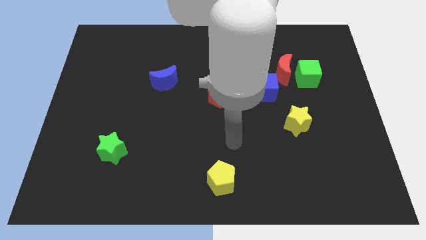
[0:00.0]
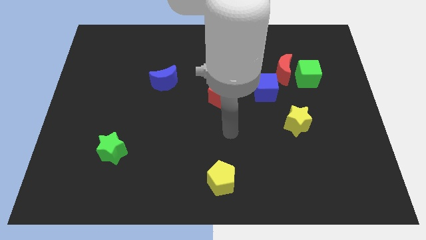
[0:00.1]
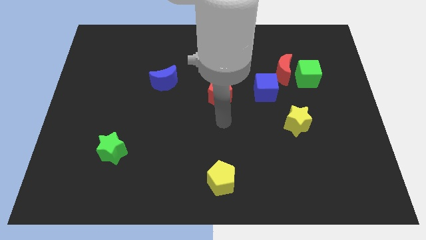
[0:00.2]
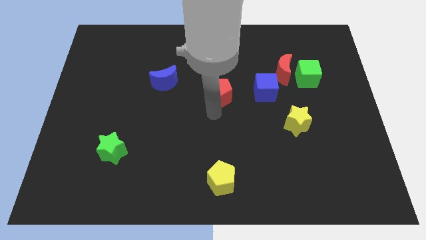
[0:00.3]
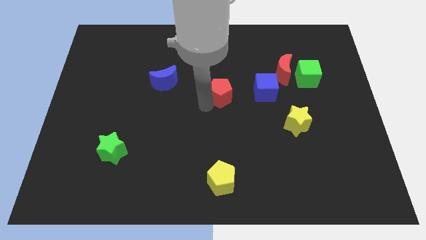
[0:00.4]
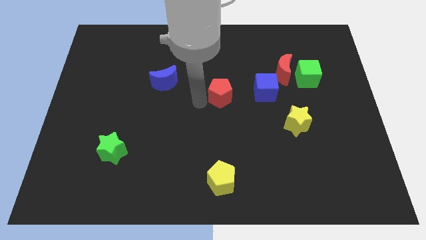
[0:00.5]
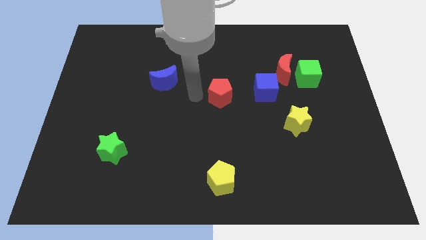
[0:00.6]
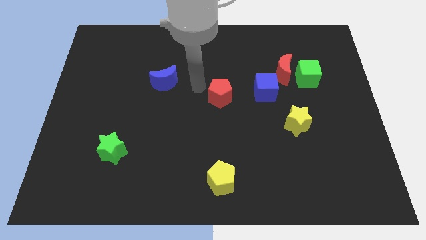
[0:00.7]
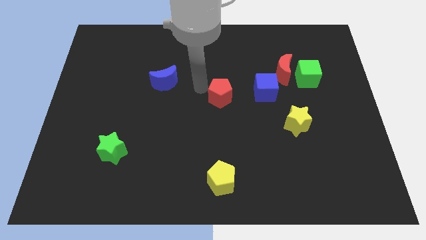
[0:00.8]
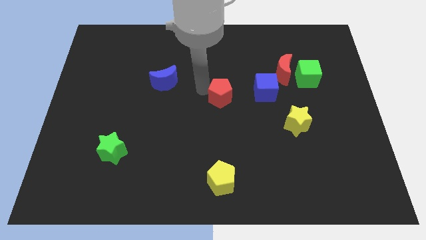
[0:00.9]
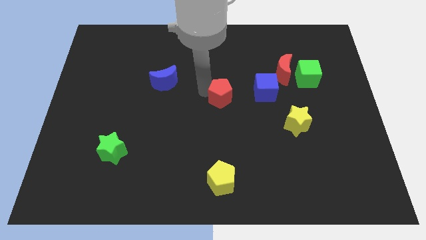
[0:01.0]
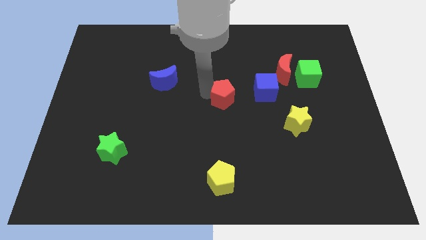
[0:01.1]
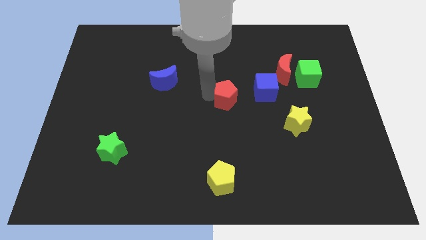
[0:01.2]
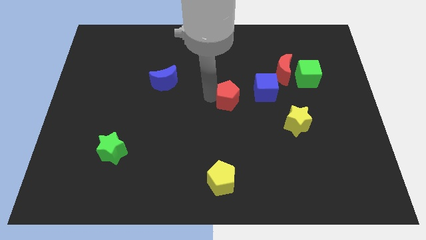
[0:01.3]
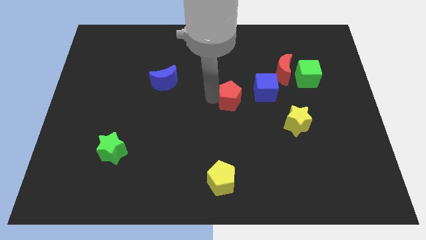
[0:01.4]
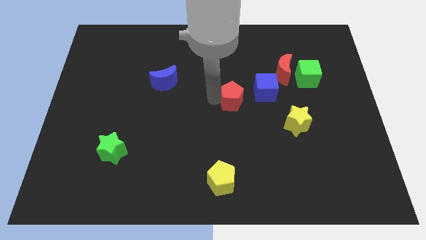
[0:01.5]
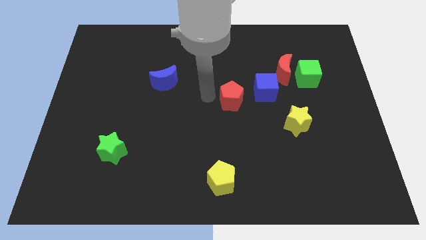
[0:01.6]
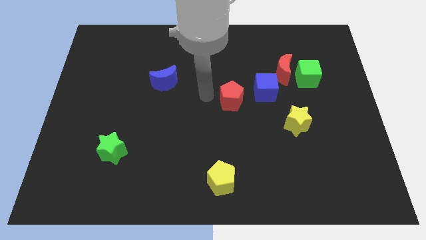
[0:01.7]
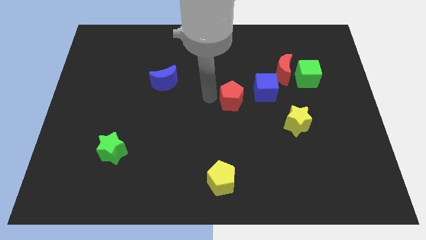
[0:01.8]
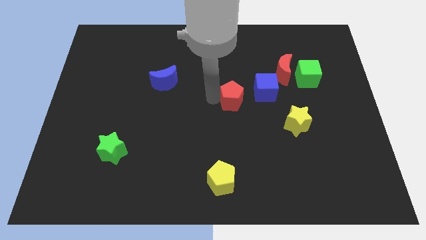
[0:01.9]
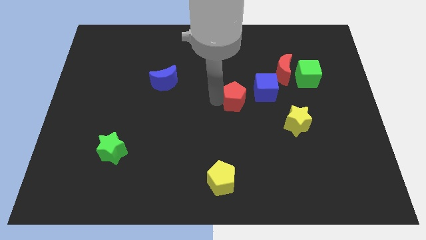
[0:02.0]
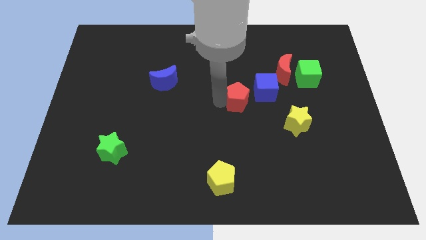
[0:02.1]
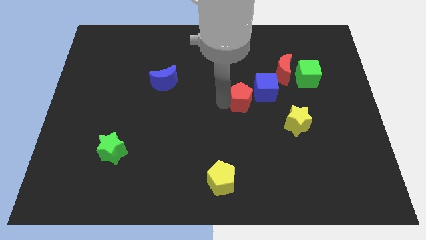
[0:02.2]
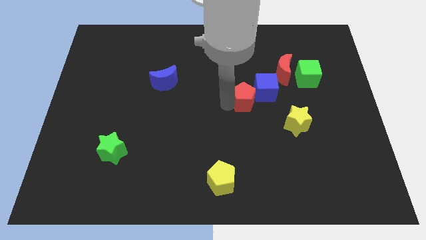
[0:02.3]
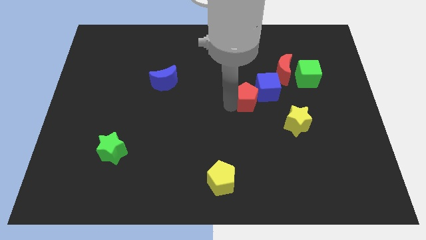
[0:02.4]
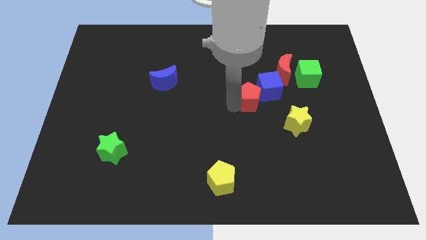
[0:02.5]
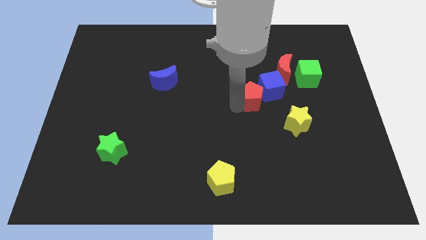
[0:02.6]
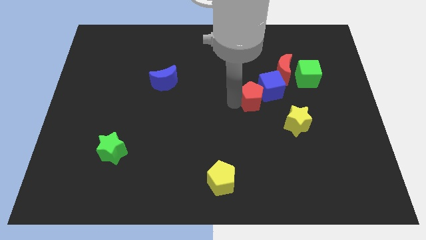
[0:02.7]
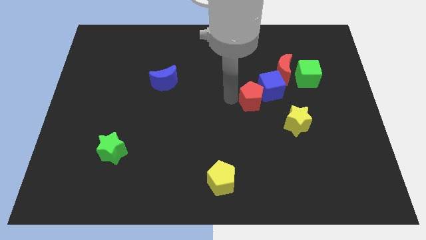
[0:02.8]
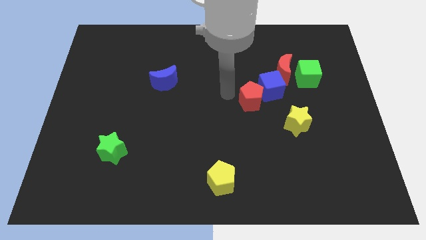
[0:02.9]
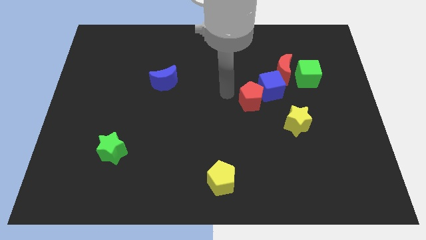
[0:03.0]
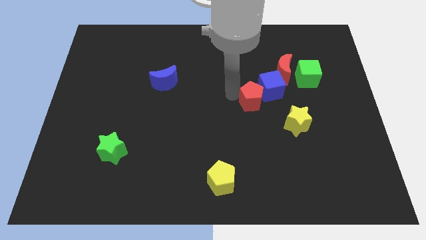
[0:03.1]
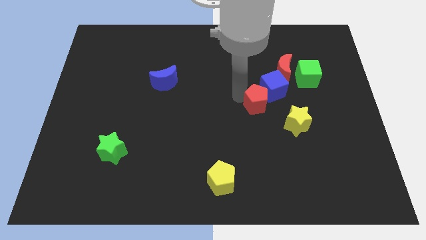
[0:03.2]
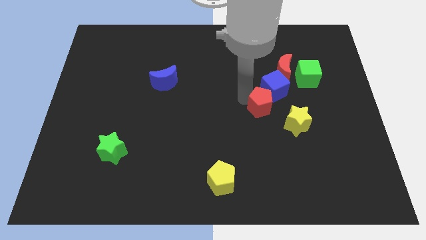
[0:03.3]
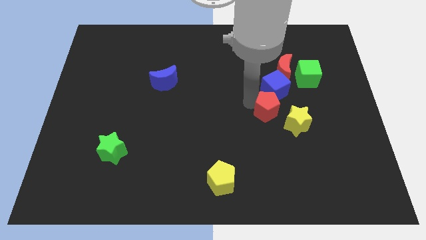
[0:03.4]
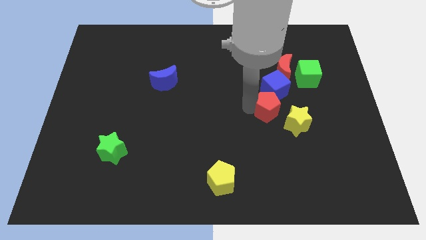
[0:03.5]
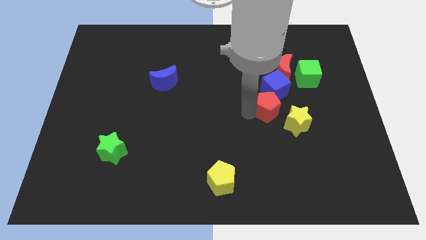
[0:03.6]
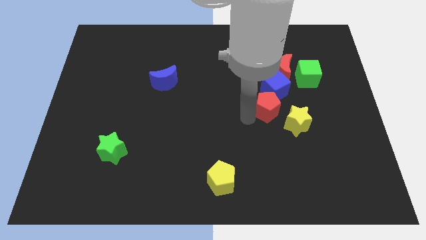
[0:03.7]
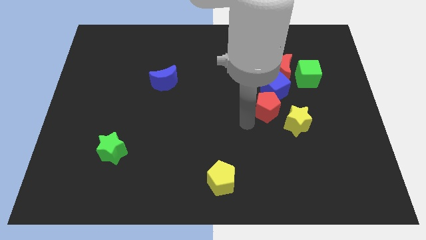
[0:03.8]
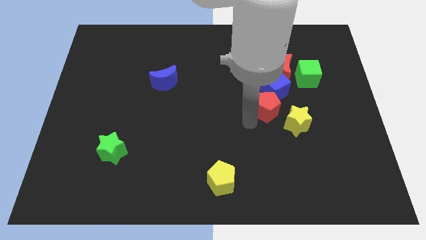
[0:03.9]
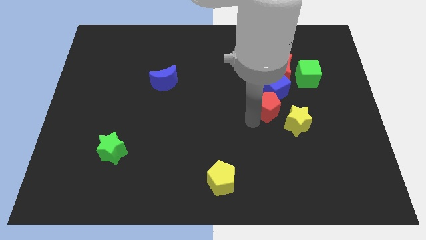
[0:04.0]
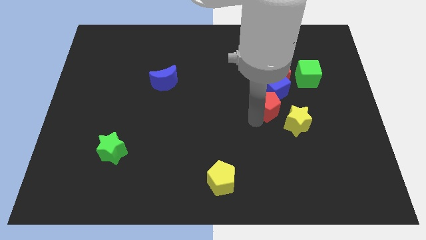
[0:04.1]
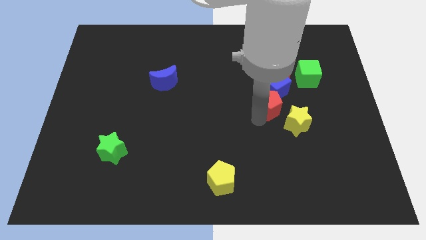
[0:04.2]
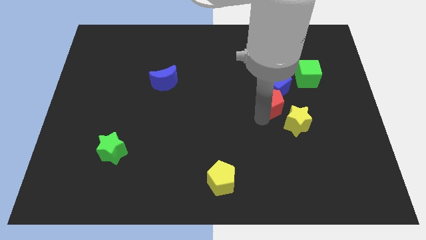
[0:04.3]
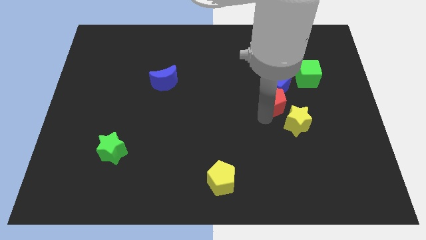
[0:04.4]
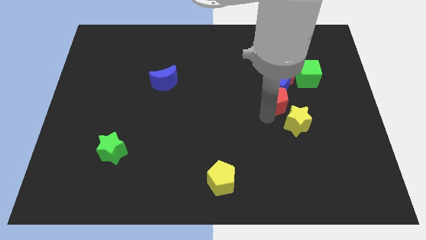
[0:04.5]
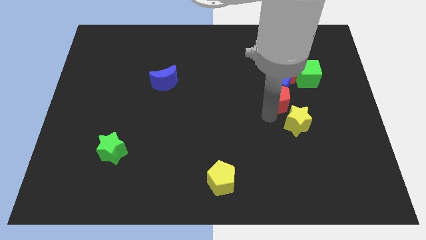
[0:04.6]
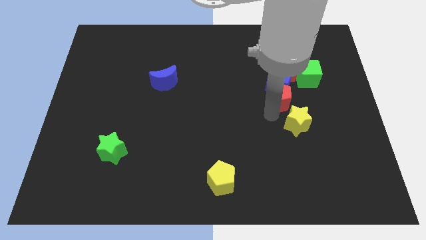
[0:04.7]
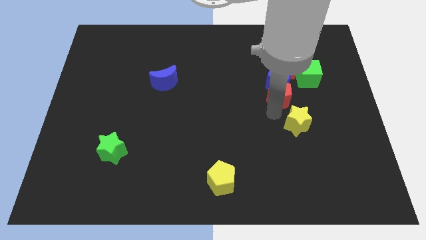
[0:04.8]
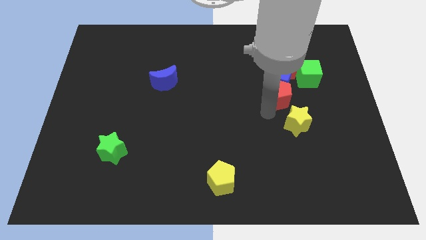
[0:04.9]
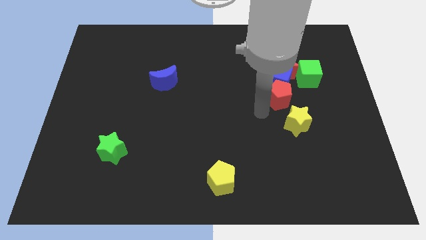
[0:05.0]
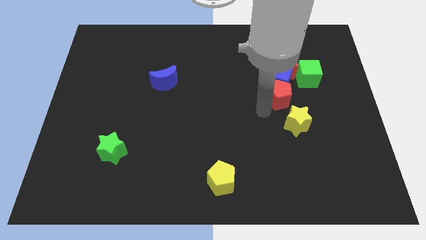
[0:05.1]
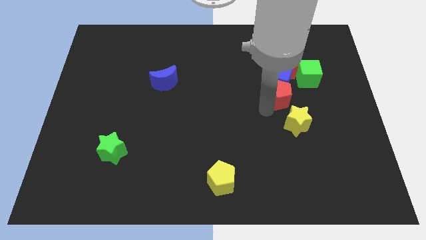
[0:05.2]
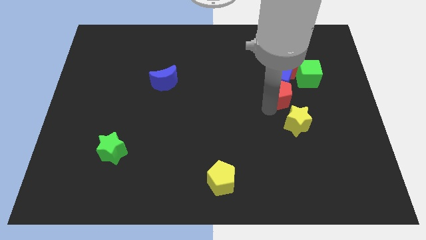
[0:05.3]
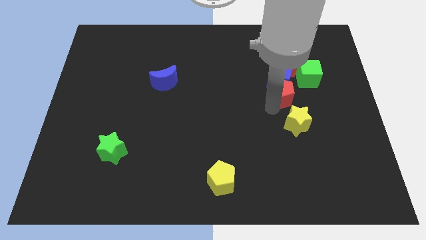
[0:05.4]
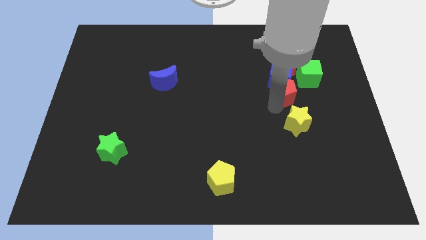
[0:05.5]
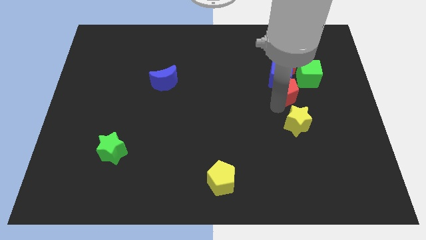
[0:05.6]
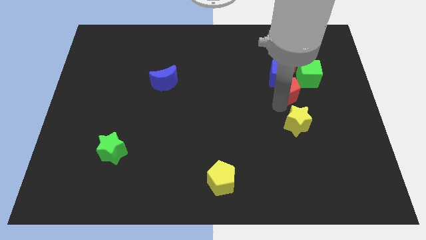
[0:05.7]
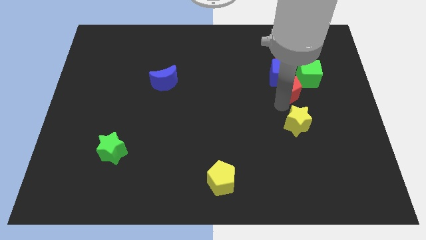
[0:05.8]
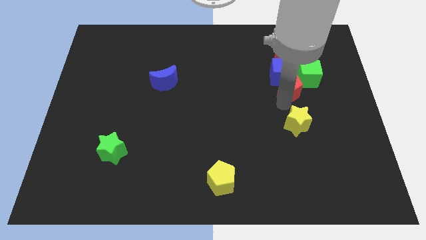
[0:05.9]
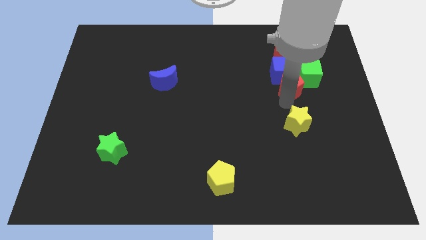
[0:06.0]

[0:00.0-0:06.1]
put the red pentagon to the green cube

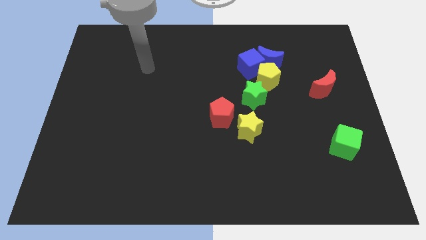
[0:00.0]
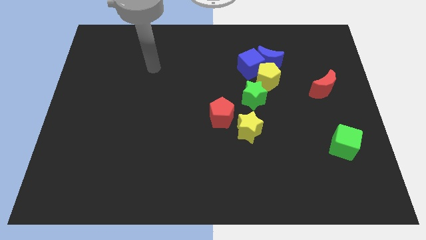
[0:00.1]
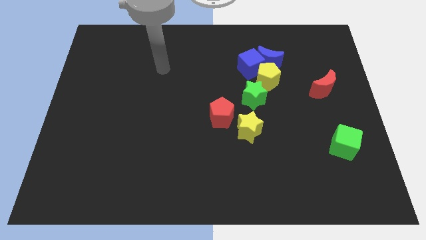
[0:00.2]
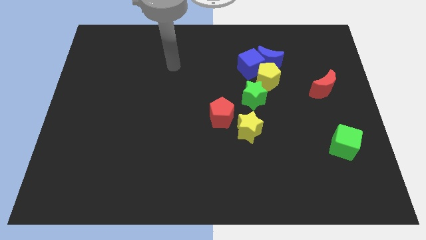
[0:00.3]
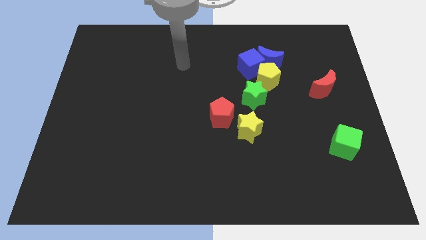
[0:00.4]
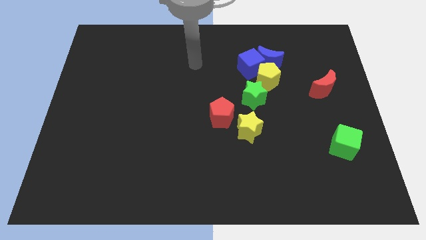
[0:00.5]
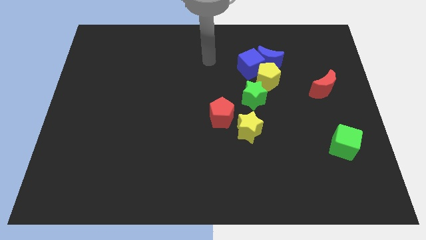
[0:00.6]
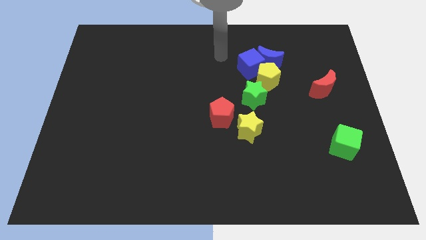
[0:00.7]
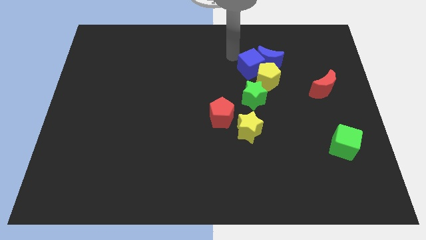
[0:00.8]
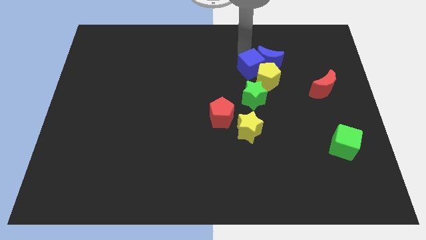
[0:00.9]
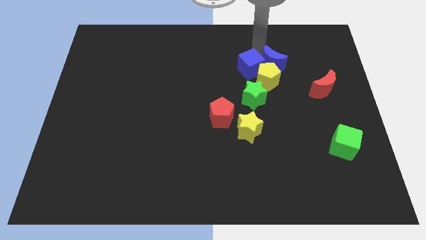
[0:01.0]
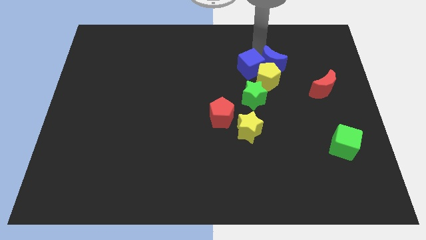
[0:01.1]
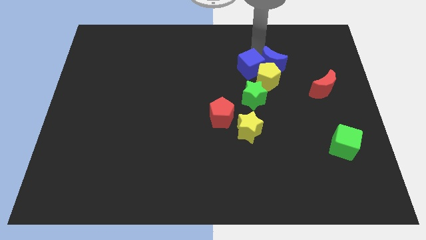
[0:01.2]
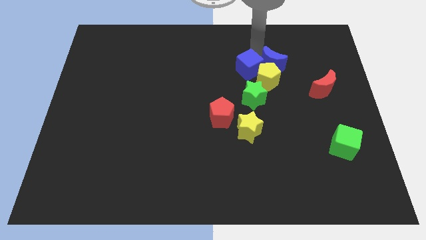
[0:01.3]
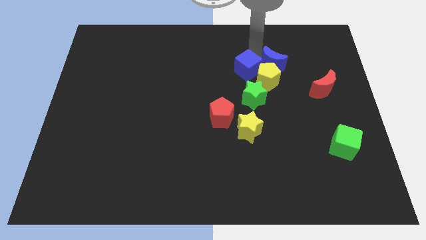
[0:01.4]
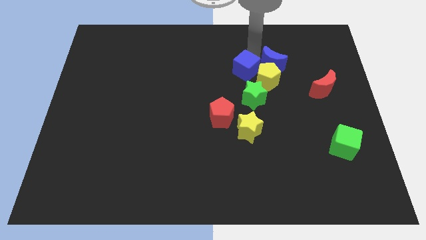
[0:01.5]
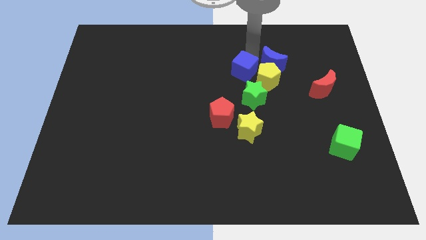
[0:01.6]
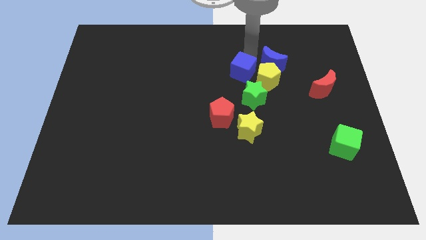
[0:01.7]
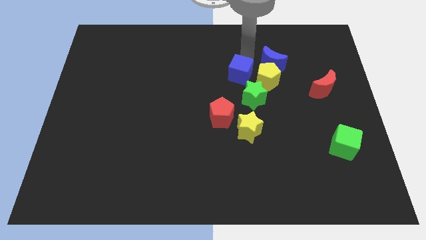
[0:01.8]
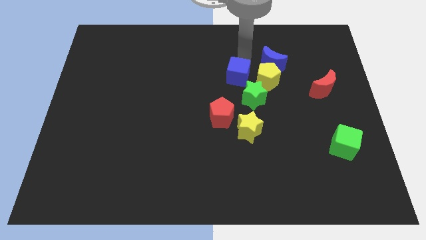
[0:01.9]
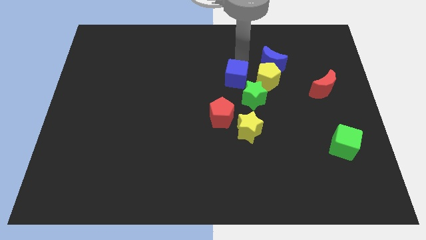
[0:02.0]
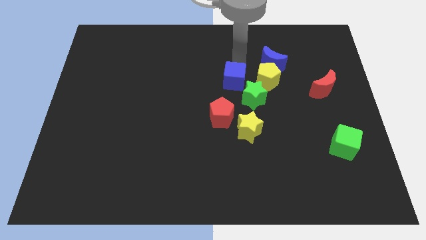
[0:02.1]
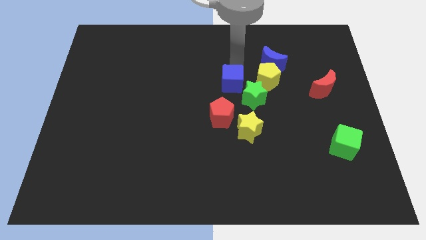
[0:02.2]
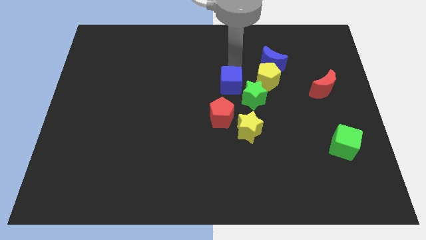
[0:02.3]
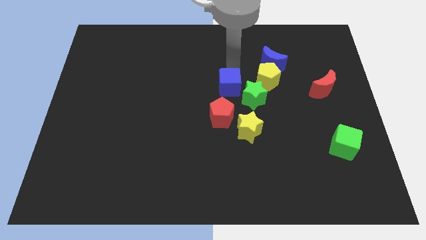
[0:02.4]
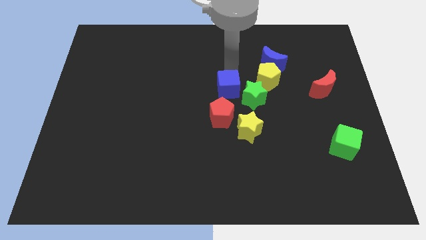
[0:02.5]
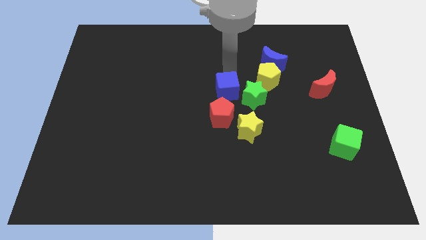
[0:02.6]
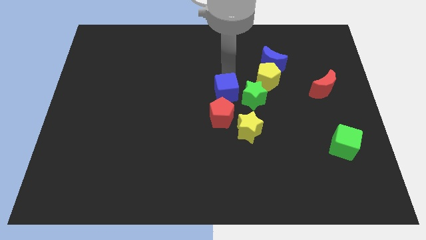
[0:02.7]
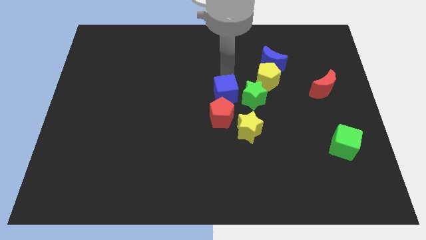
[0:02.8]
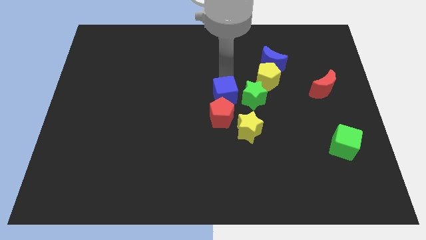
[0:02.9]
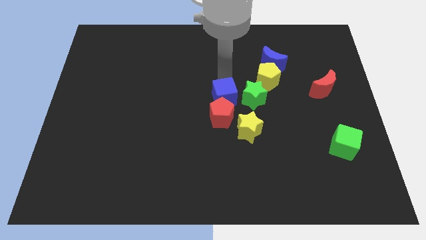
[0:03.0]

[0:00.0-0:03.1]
push the blue cube towards the red pentagon
